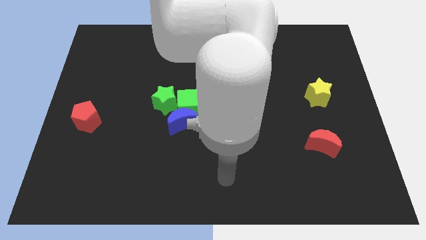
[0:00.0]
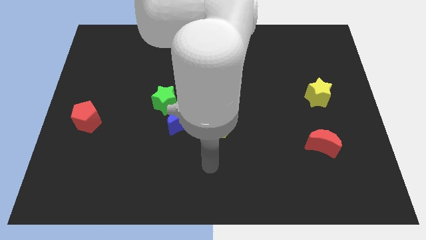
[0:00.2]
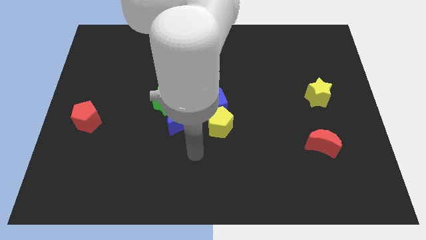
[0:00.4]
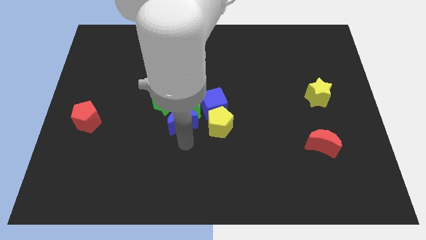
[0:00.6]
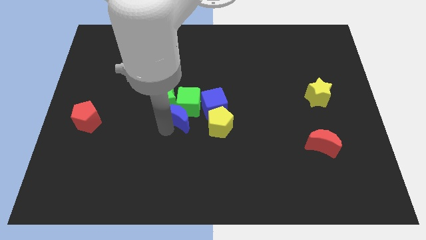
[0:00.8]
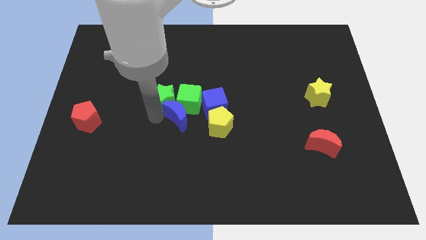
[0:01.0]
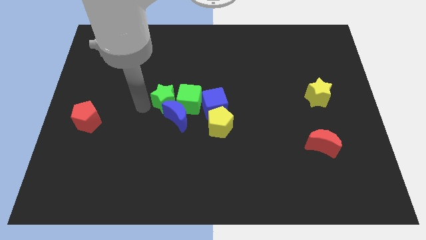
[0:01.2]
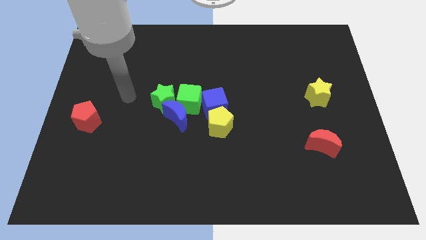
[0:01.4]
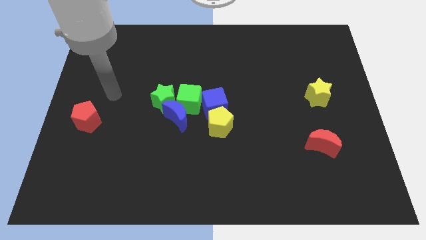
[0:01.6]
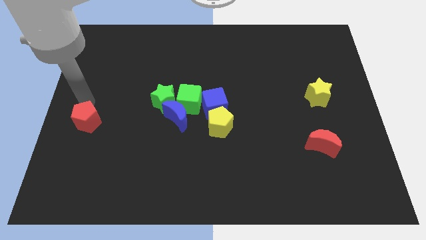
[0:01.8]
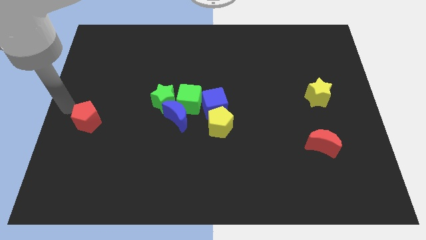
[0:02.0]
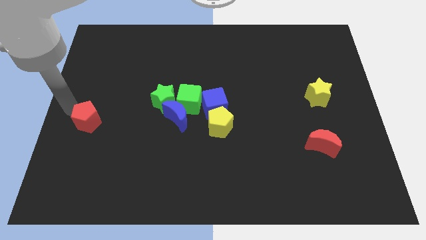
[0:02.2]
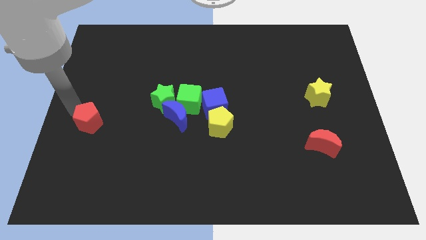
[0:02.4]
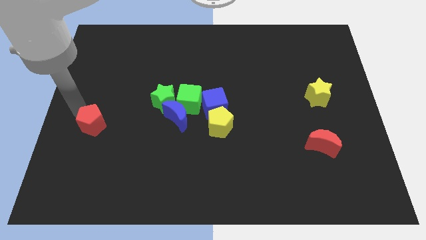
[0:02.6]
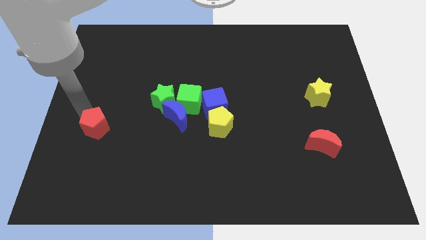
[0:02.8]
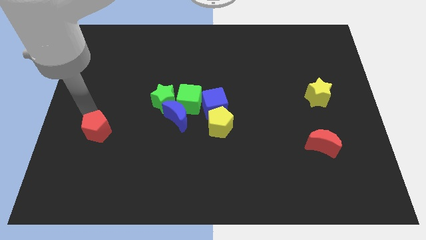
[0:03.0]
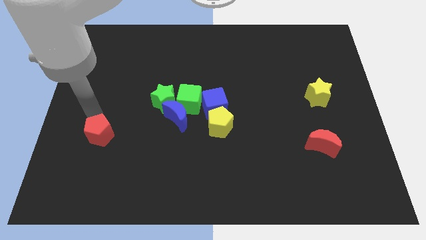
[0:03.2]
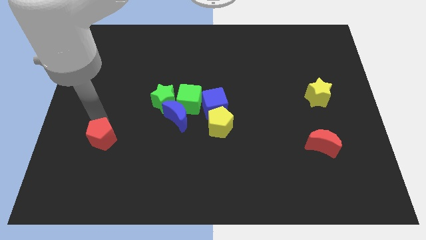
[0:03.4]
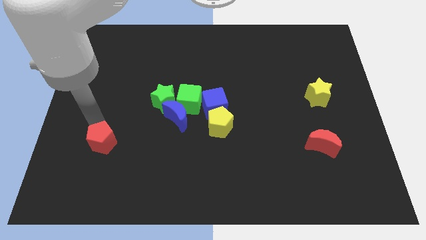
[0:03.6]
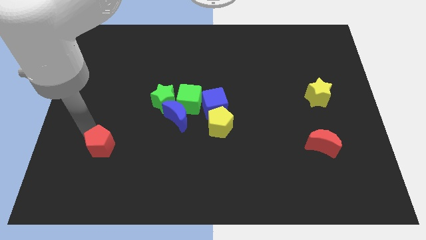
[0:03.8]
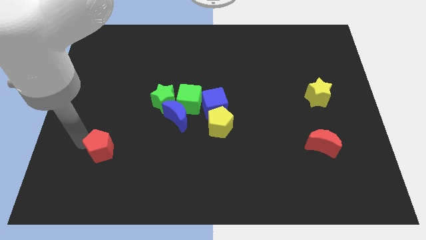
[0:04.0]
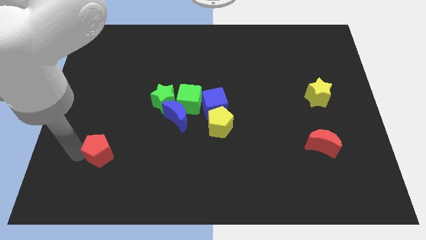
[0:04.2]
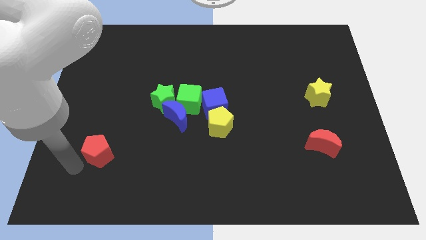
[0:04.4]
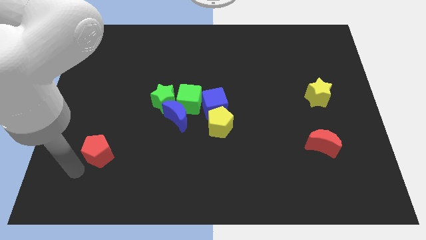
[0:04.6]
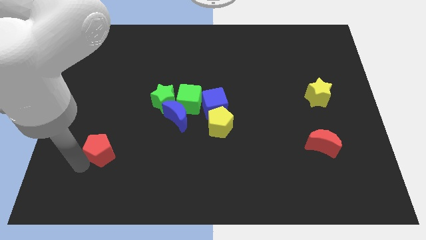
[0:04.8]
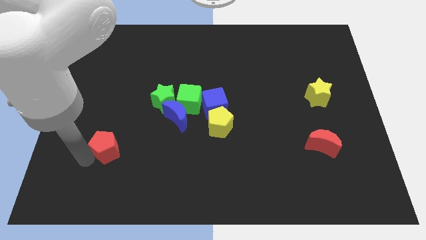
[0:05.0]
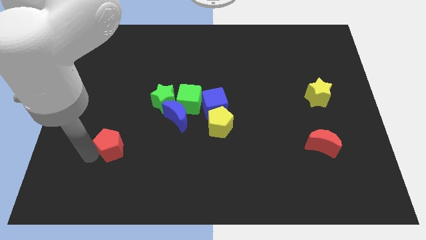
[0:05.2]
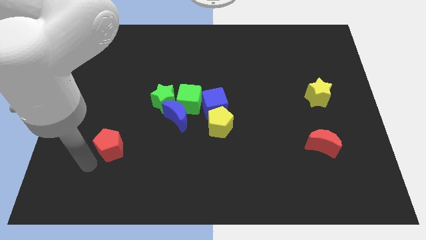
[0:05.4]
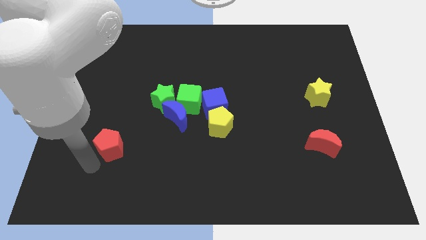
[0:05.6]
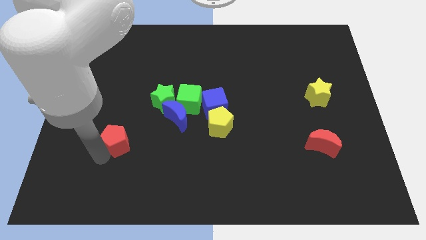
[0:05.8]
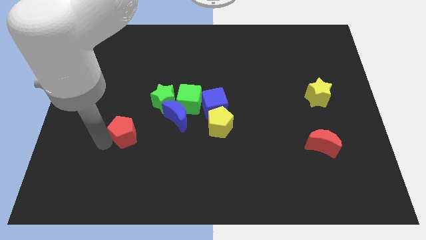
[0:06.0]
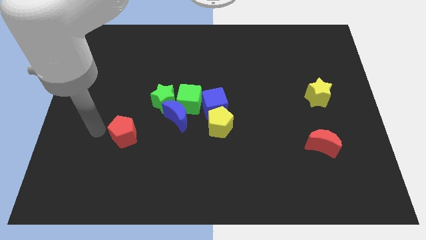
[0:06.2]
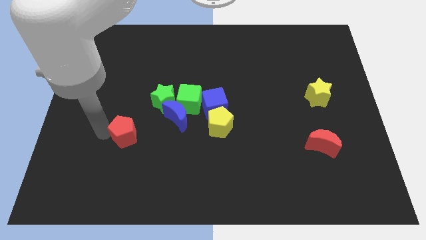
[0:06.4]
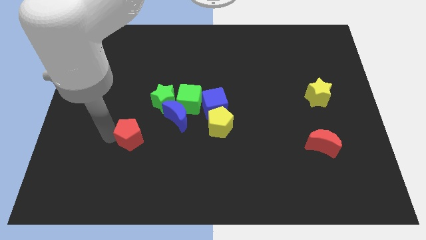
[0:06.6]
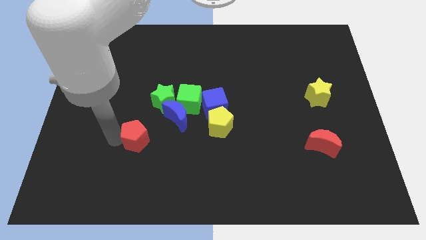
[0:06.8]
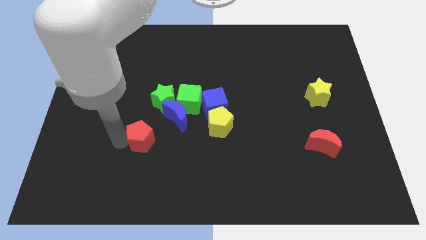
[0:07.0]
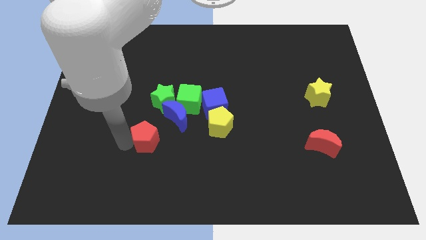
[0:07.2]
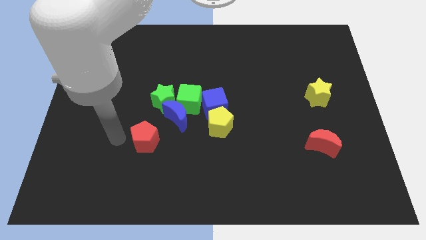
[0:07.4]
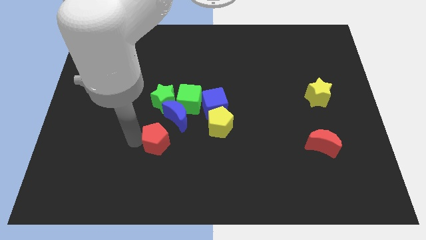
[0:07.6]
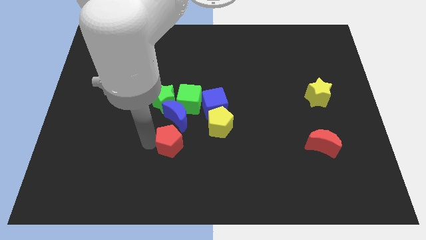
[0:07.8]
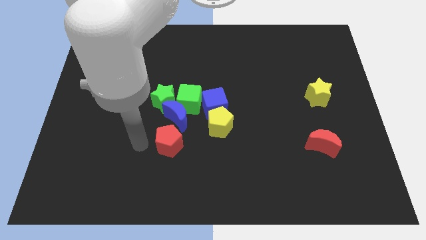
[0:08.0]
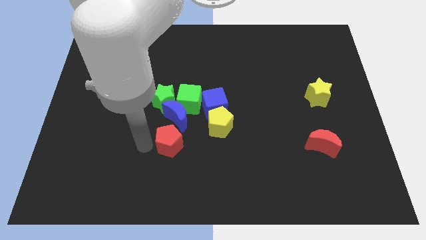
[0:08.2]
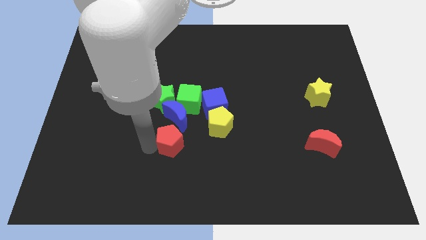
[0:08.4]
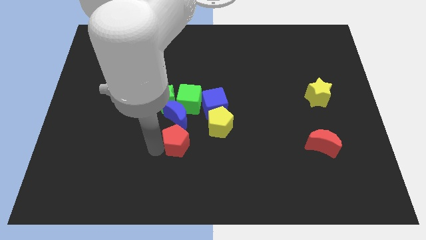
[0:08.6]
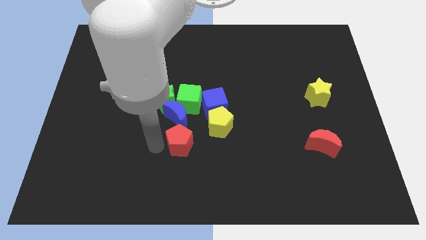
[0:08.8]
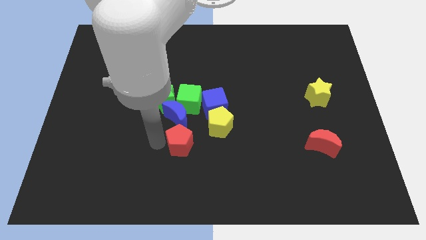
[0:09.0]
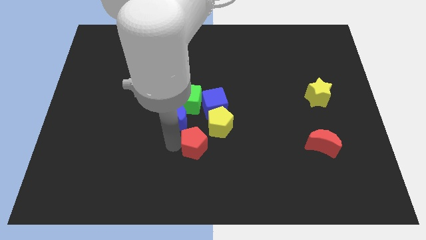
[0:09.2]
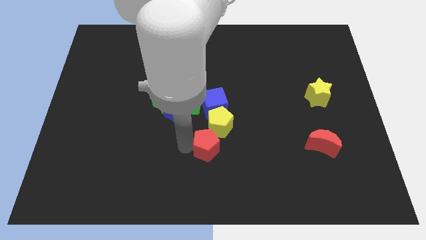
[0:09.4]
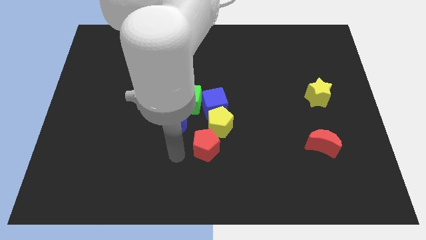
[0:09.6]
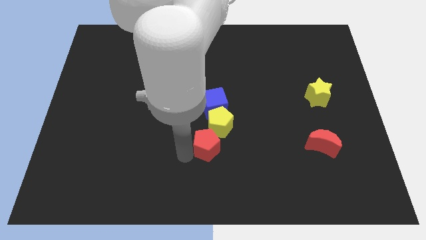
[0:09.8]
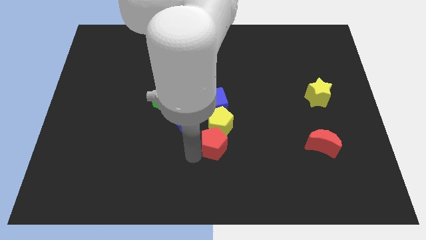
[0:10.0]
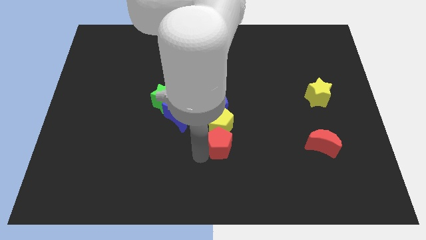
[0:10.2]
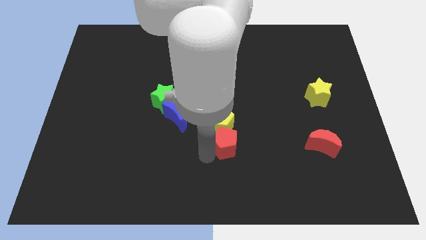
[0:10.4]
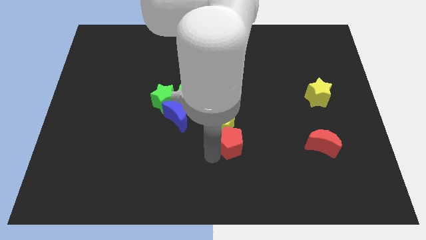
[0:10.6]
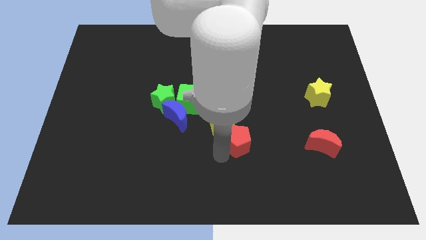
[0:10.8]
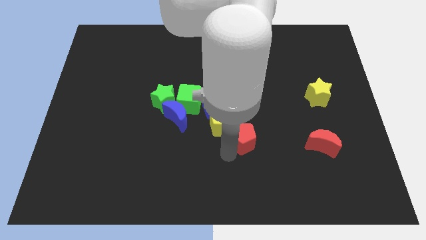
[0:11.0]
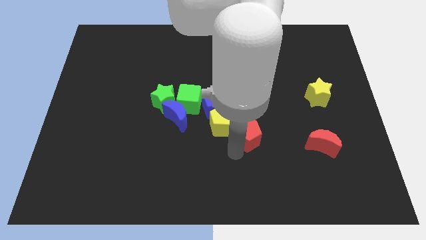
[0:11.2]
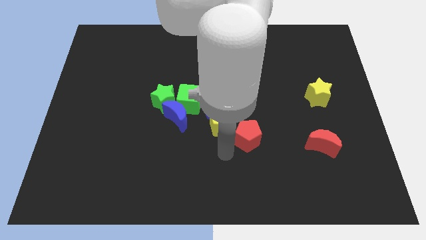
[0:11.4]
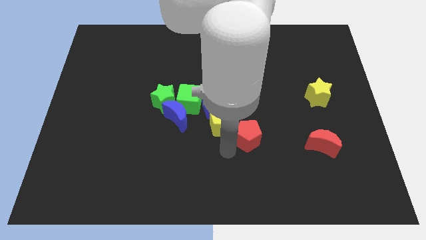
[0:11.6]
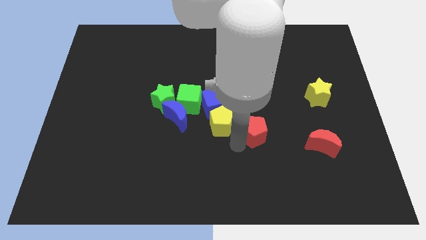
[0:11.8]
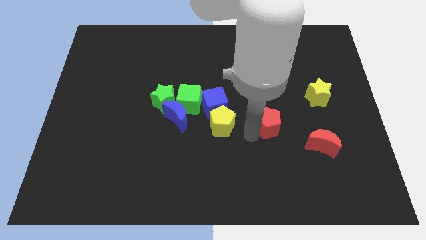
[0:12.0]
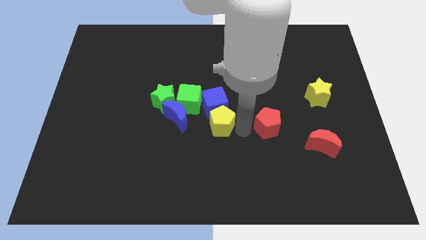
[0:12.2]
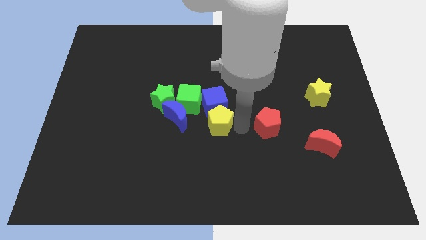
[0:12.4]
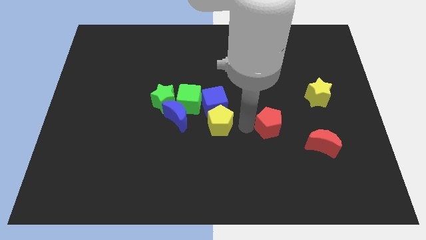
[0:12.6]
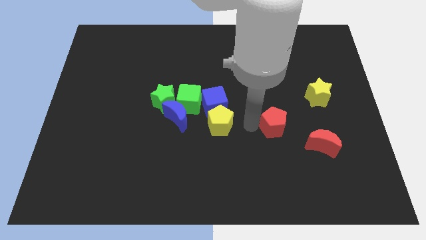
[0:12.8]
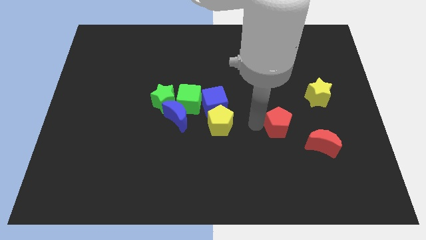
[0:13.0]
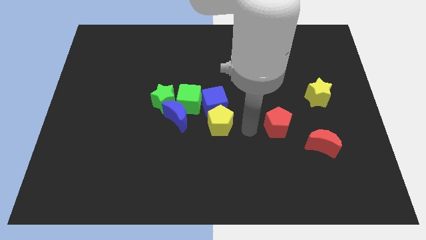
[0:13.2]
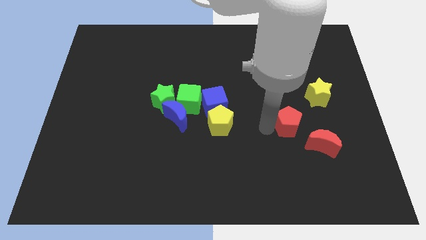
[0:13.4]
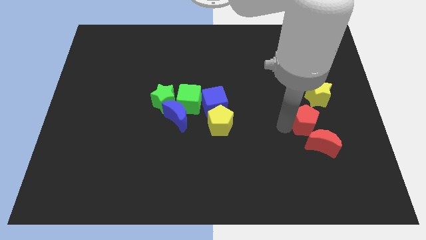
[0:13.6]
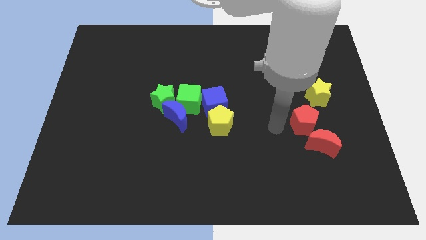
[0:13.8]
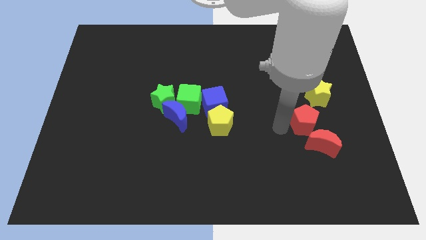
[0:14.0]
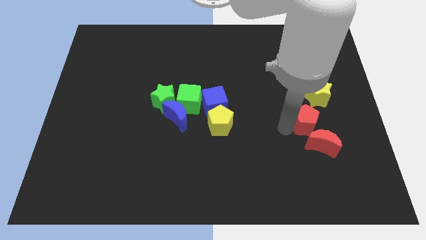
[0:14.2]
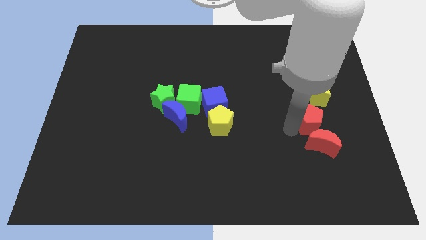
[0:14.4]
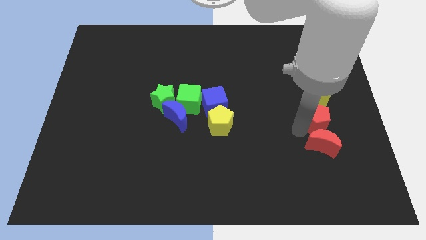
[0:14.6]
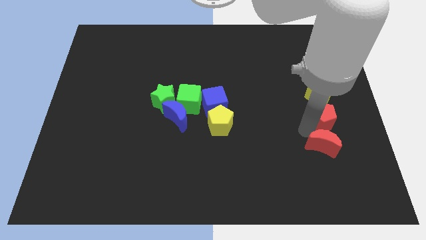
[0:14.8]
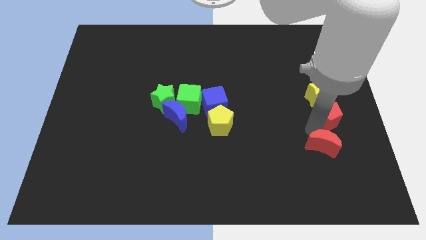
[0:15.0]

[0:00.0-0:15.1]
put the red pentagon to the center right
